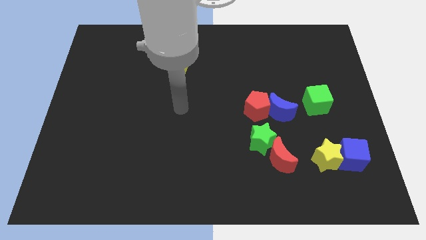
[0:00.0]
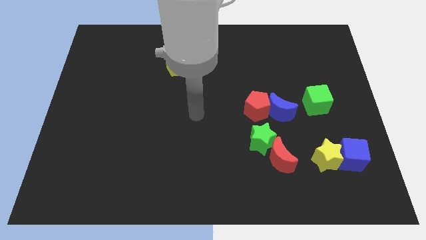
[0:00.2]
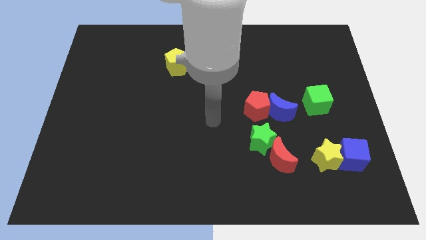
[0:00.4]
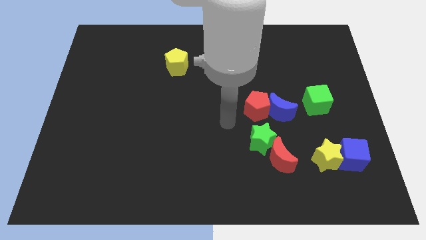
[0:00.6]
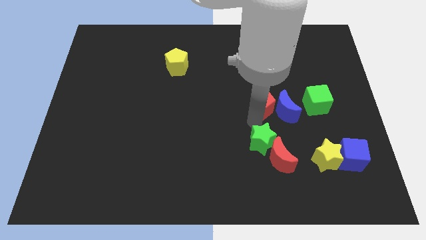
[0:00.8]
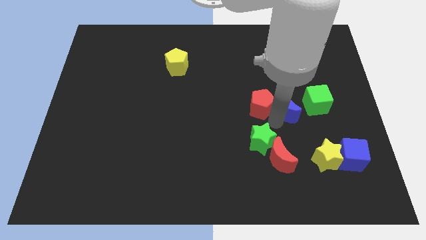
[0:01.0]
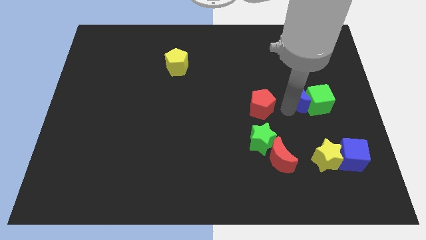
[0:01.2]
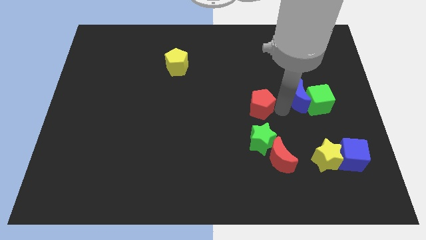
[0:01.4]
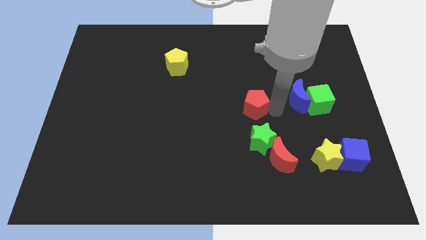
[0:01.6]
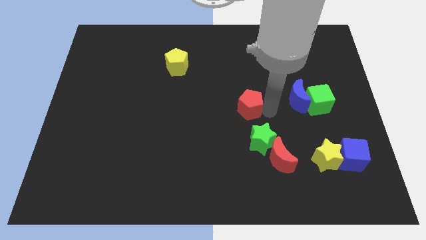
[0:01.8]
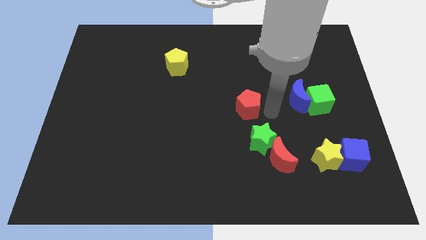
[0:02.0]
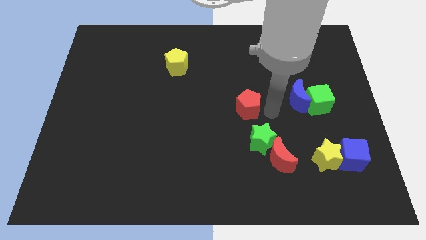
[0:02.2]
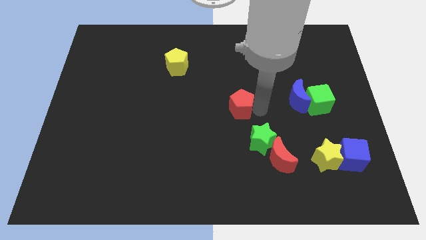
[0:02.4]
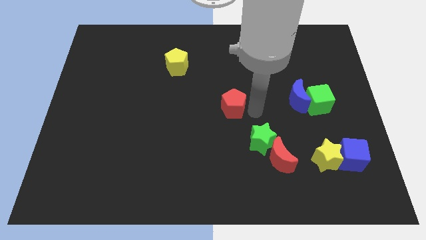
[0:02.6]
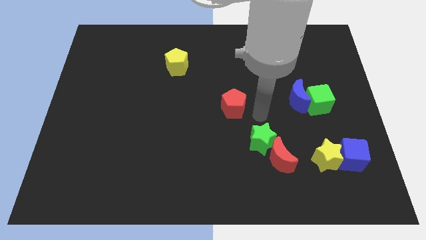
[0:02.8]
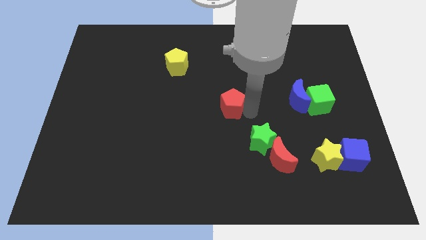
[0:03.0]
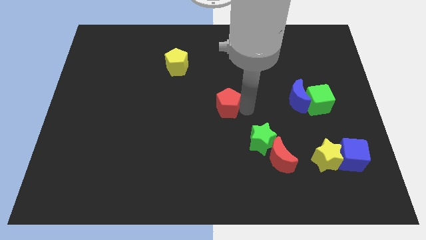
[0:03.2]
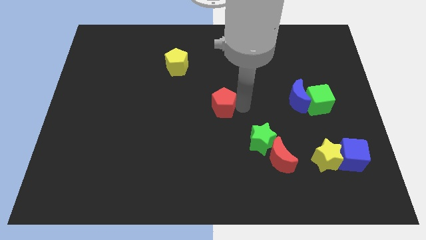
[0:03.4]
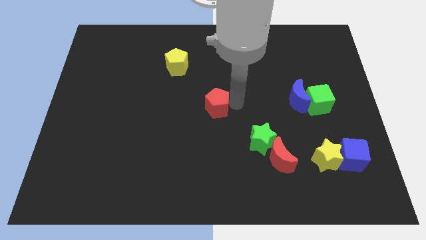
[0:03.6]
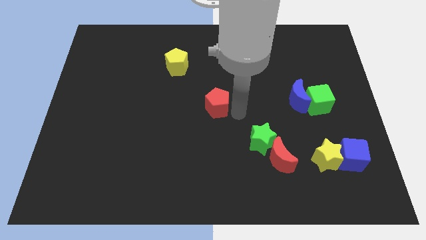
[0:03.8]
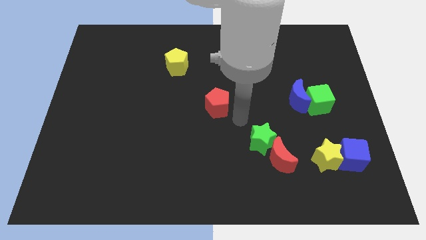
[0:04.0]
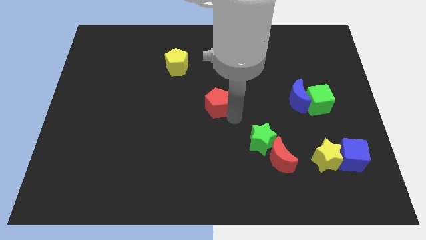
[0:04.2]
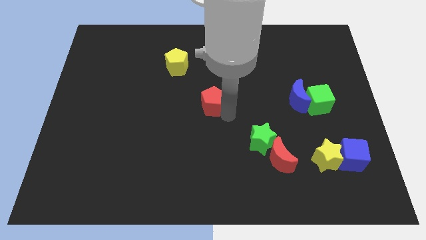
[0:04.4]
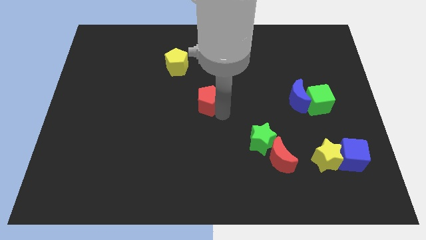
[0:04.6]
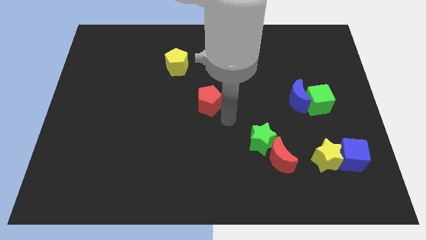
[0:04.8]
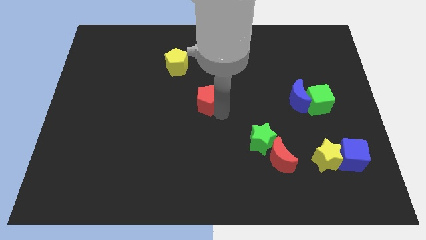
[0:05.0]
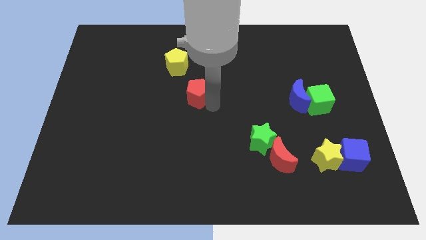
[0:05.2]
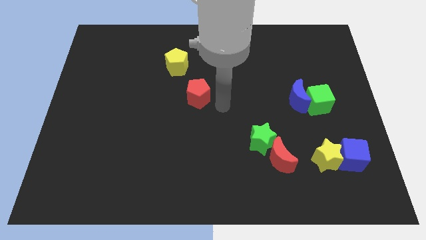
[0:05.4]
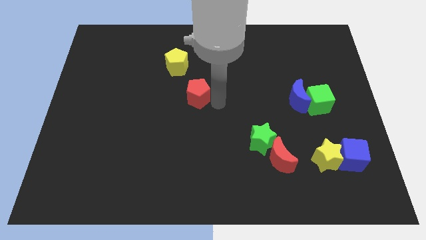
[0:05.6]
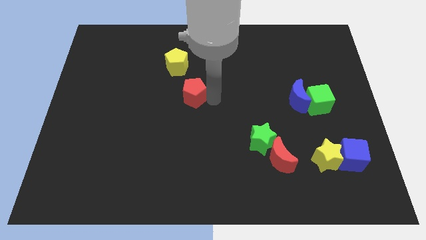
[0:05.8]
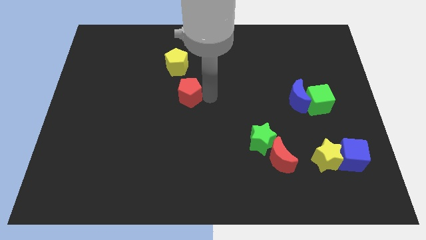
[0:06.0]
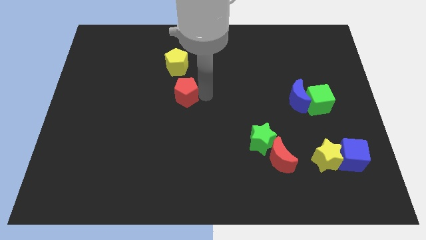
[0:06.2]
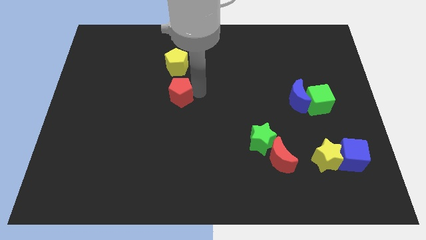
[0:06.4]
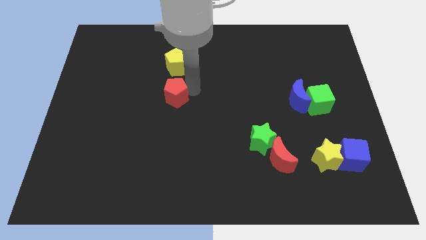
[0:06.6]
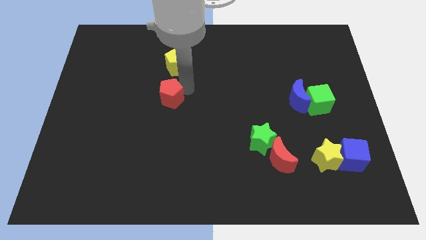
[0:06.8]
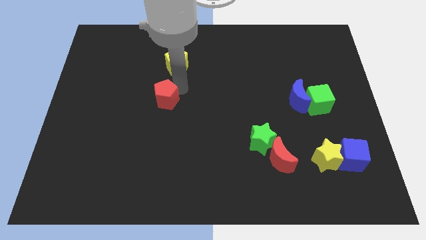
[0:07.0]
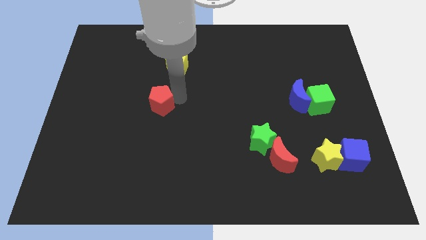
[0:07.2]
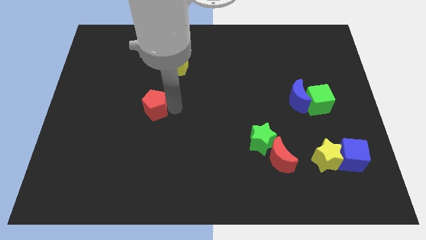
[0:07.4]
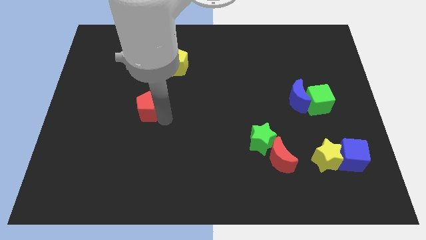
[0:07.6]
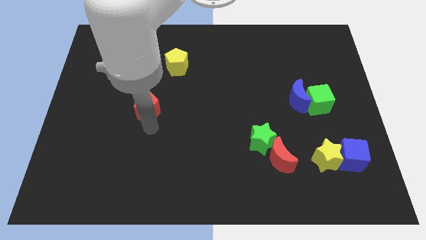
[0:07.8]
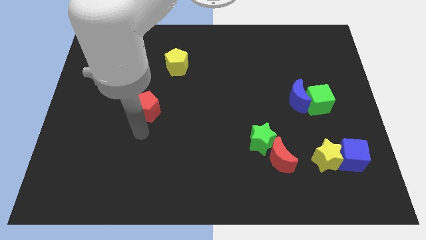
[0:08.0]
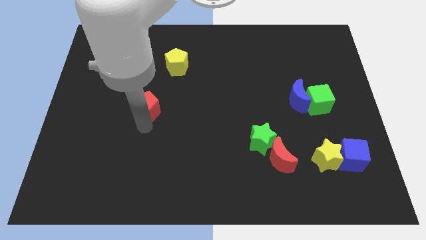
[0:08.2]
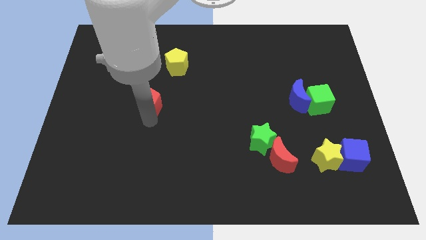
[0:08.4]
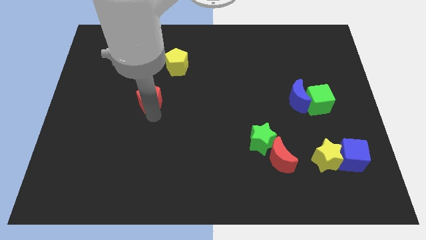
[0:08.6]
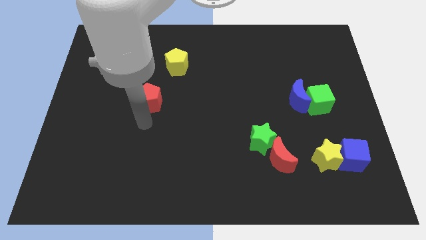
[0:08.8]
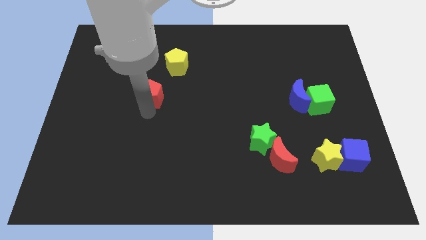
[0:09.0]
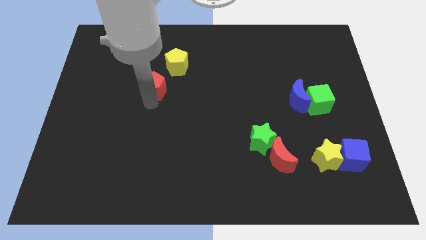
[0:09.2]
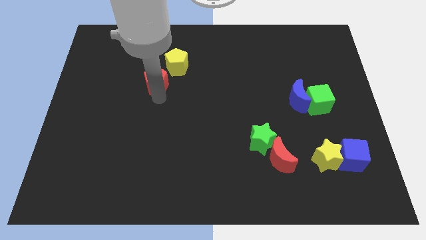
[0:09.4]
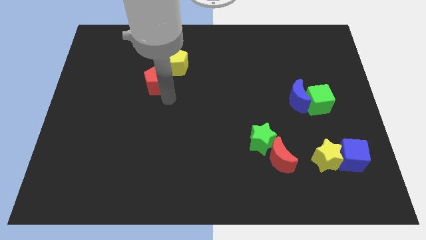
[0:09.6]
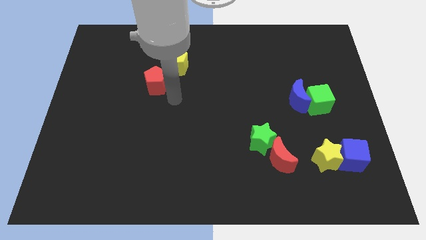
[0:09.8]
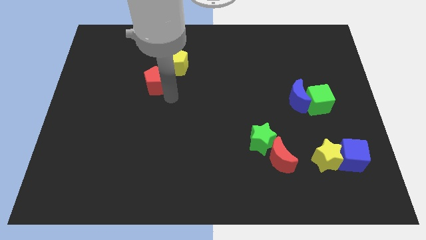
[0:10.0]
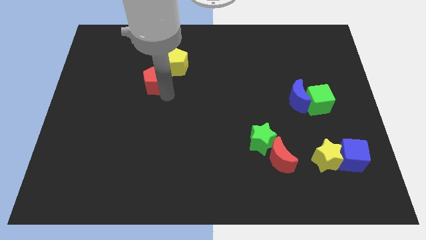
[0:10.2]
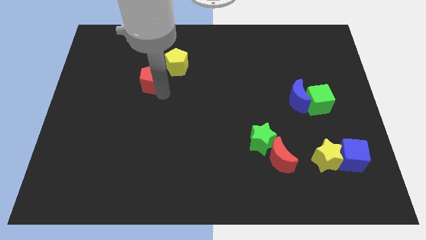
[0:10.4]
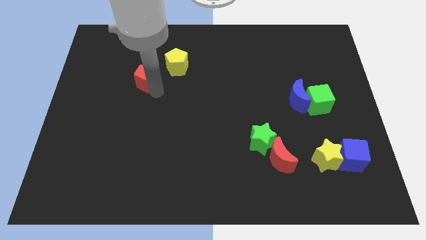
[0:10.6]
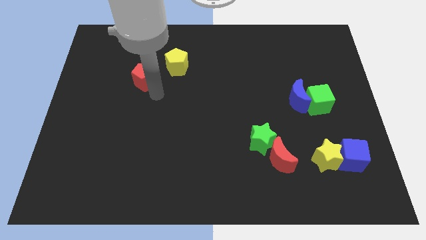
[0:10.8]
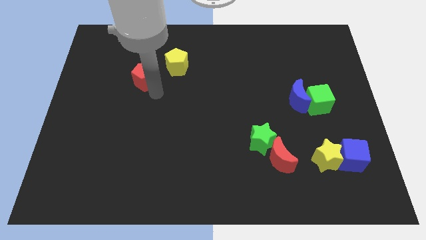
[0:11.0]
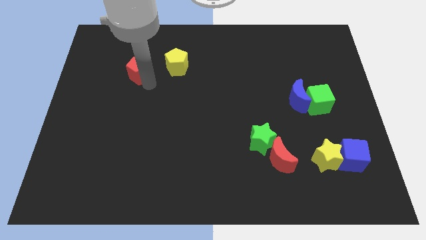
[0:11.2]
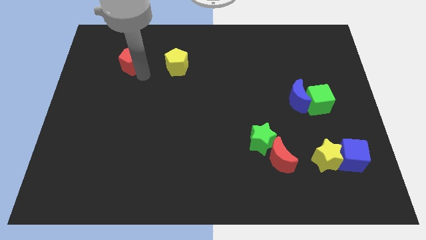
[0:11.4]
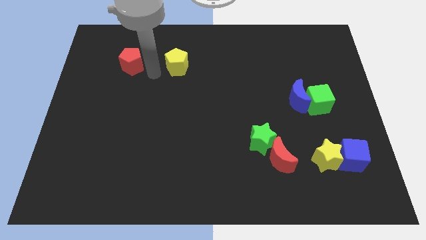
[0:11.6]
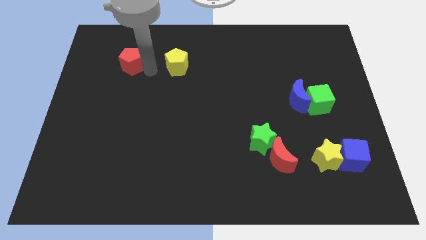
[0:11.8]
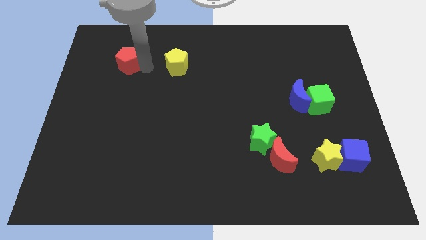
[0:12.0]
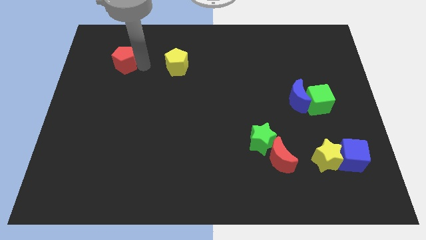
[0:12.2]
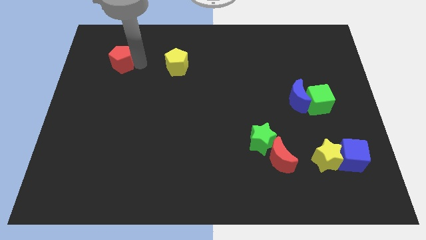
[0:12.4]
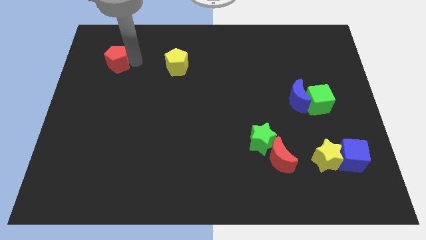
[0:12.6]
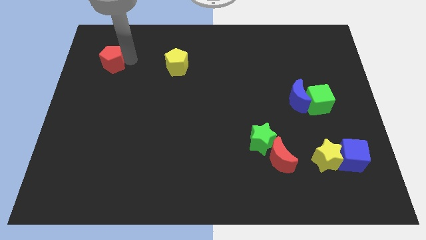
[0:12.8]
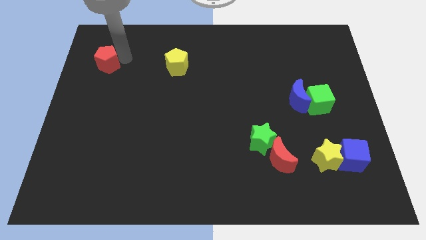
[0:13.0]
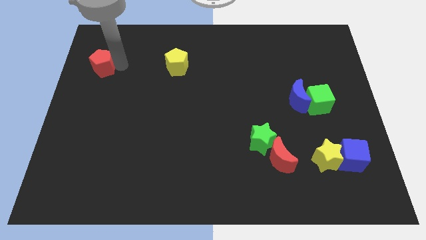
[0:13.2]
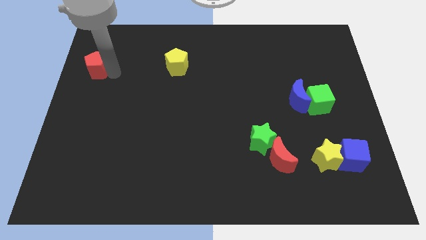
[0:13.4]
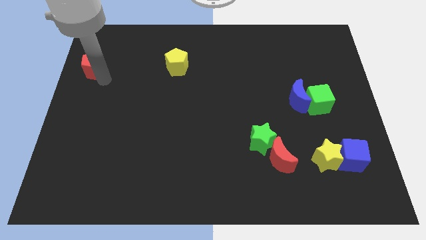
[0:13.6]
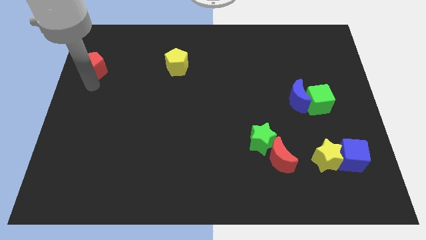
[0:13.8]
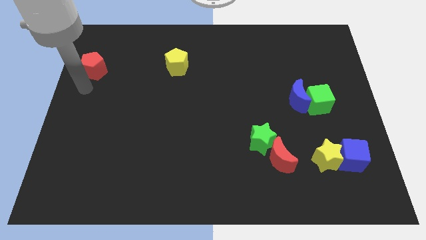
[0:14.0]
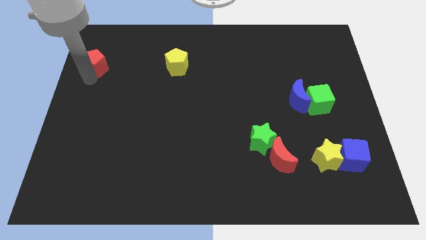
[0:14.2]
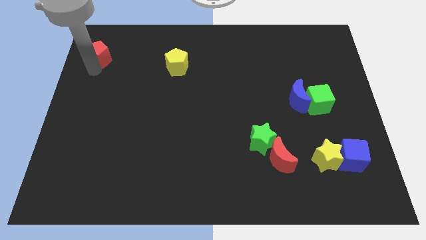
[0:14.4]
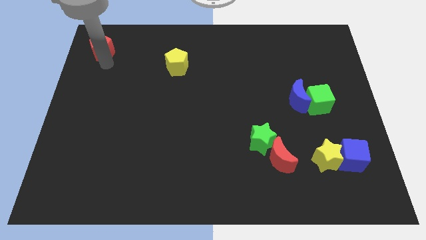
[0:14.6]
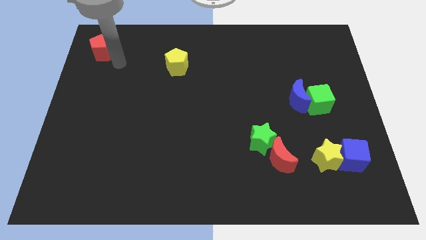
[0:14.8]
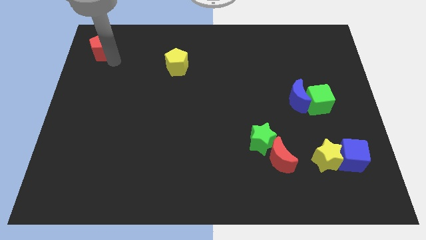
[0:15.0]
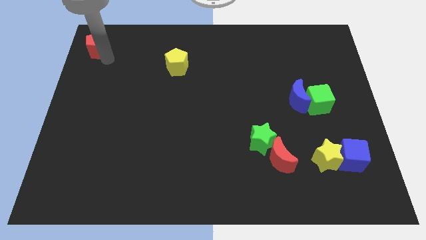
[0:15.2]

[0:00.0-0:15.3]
slide the red pentagon to the top left
